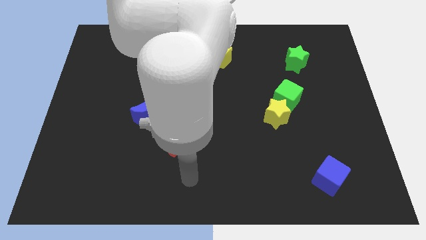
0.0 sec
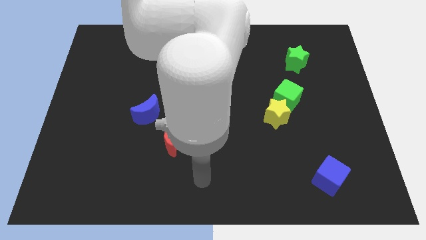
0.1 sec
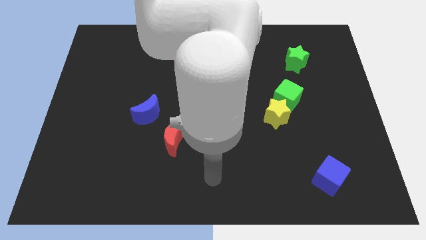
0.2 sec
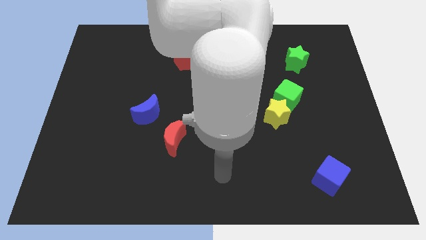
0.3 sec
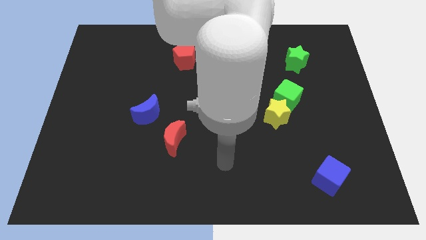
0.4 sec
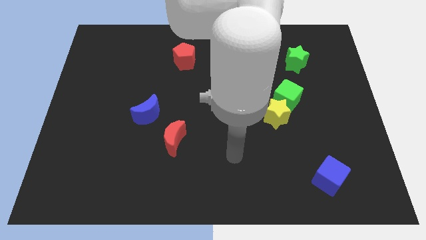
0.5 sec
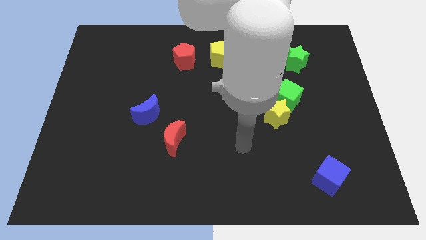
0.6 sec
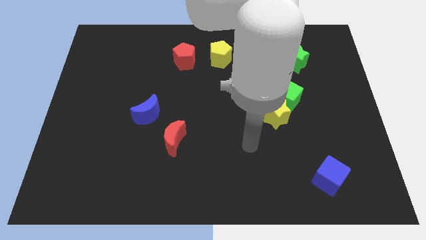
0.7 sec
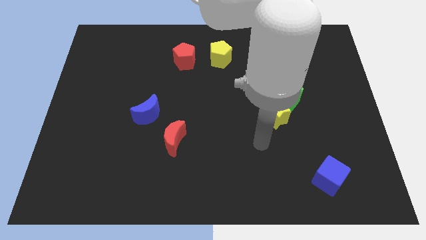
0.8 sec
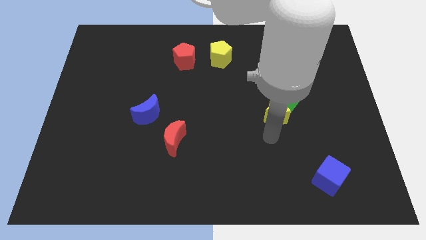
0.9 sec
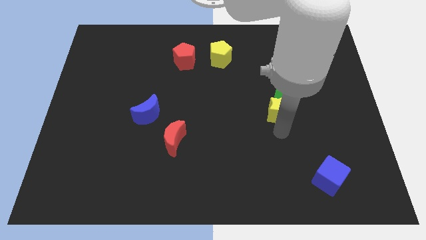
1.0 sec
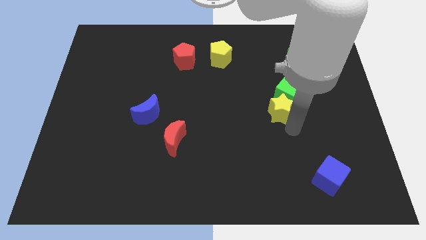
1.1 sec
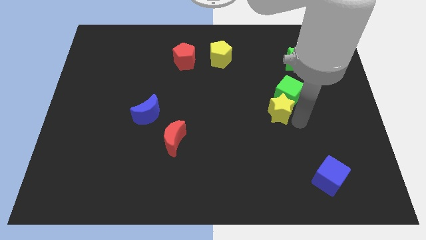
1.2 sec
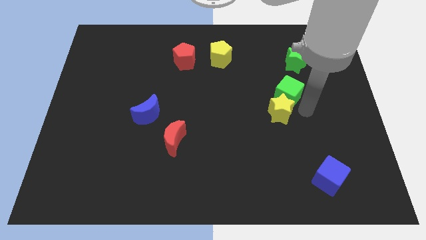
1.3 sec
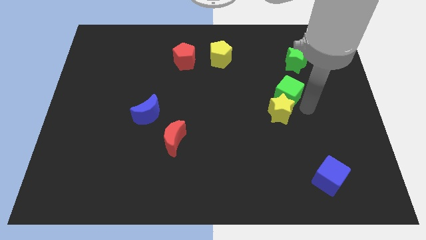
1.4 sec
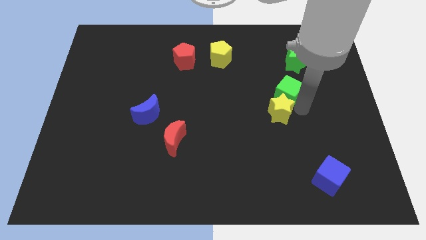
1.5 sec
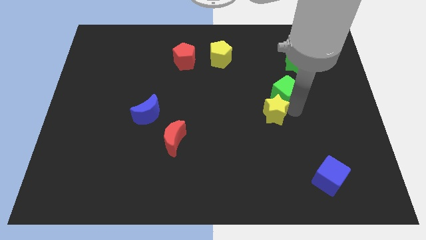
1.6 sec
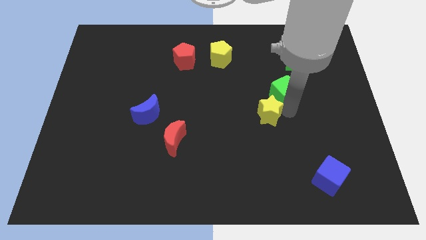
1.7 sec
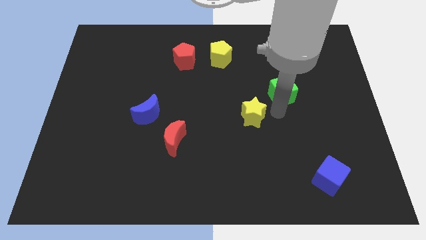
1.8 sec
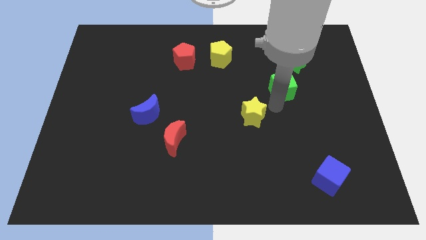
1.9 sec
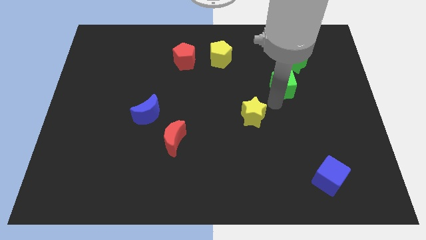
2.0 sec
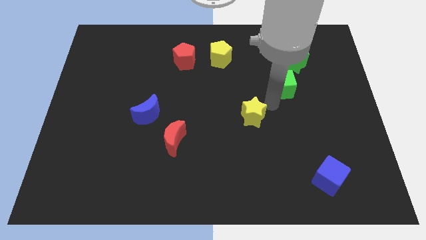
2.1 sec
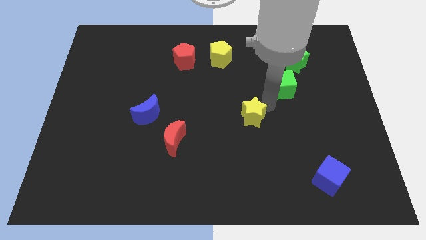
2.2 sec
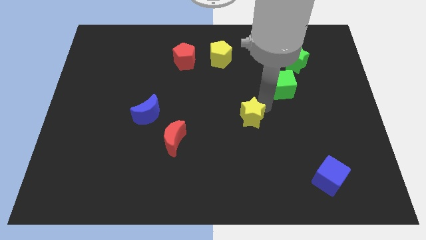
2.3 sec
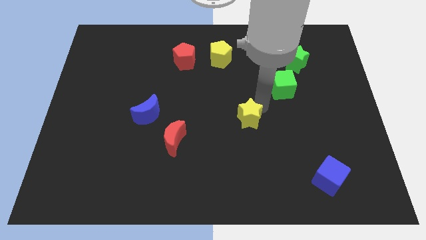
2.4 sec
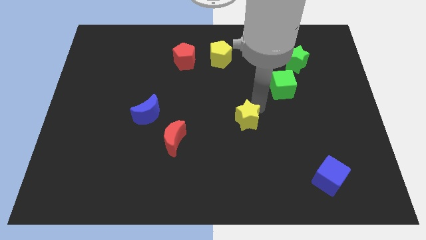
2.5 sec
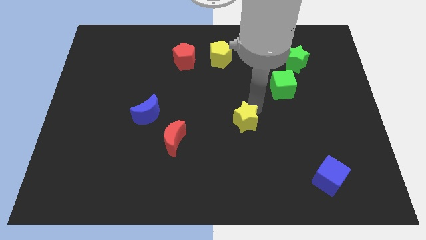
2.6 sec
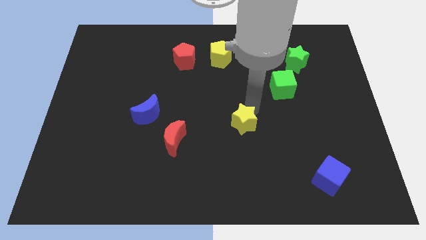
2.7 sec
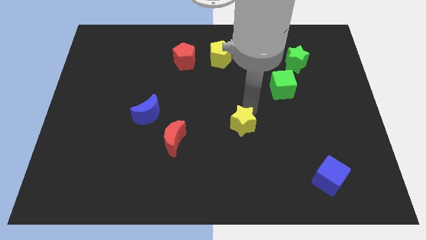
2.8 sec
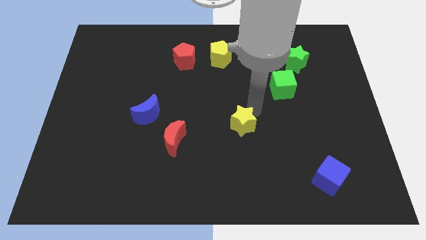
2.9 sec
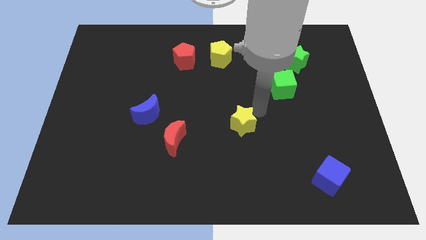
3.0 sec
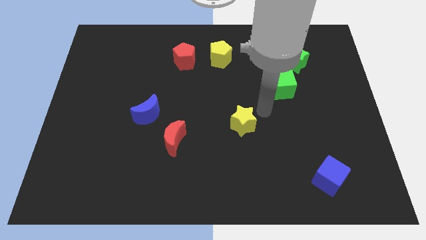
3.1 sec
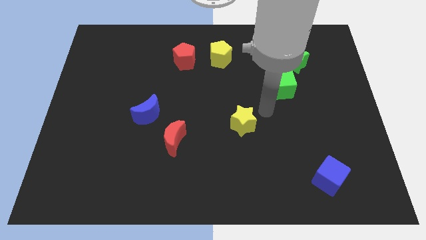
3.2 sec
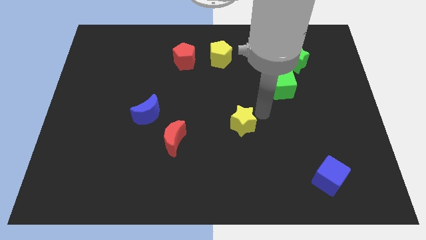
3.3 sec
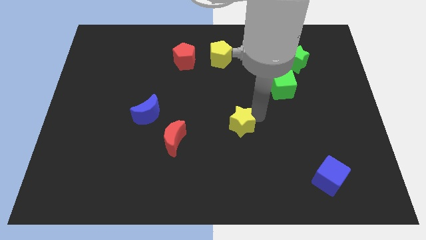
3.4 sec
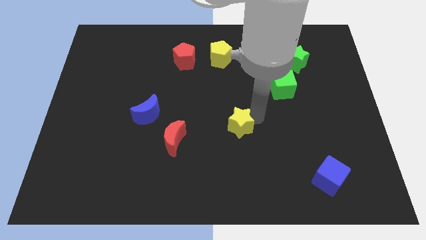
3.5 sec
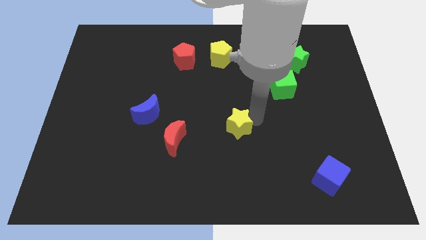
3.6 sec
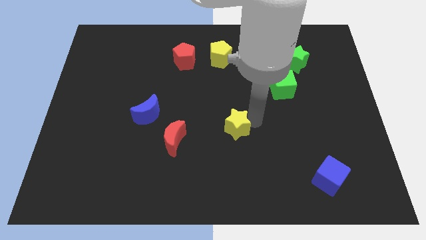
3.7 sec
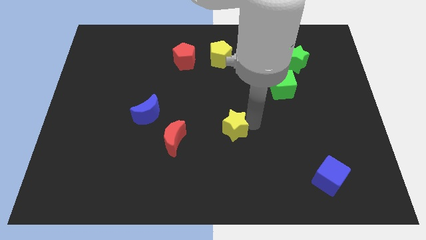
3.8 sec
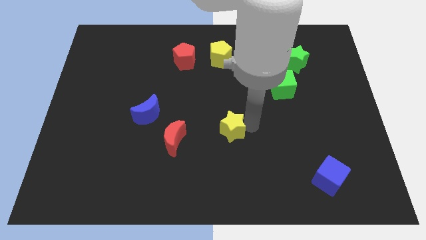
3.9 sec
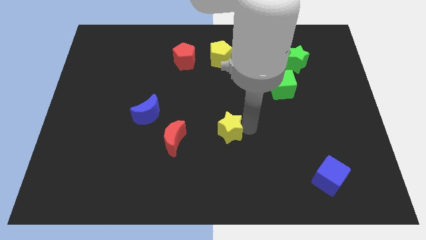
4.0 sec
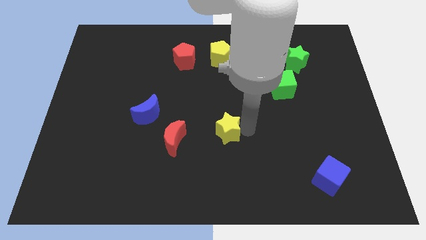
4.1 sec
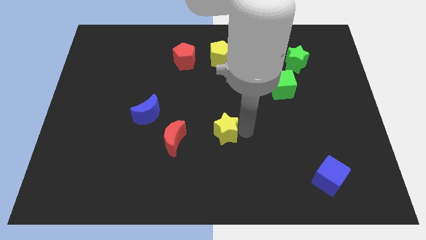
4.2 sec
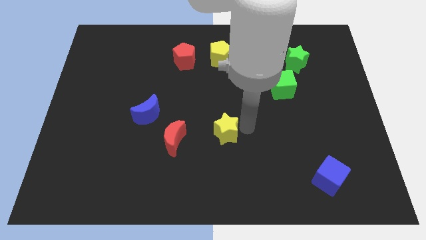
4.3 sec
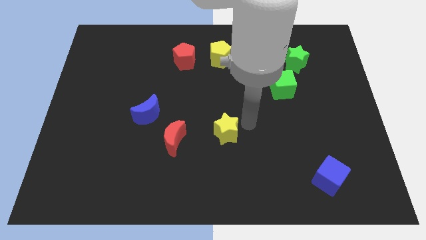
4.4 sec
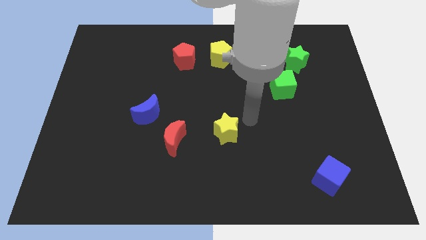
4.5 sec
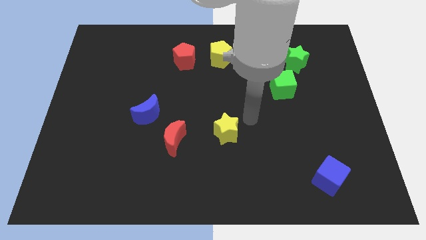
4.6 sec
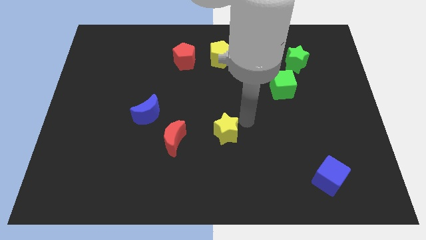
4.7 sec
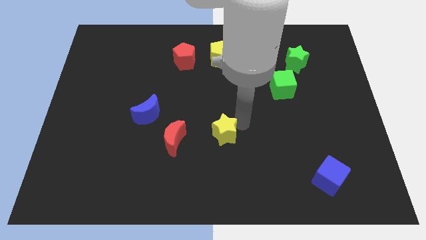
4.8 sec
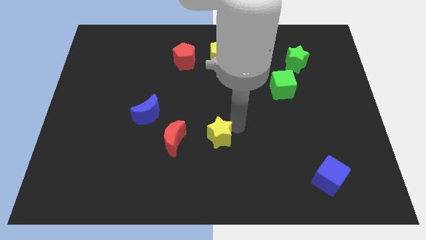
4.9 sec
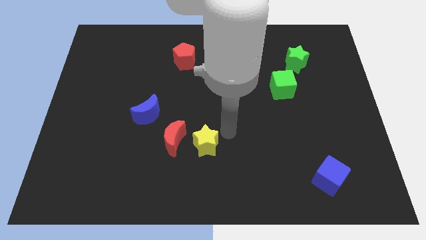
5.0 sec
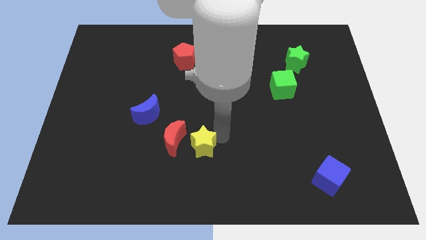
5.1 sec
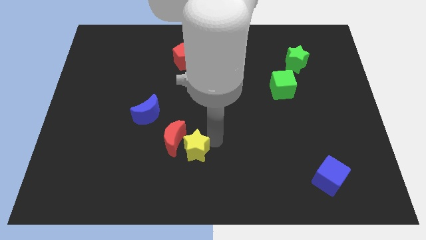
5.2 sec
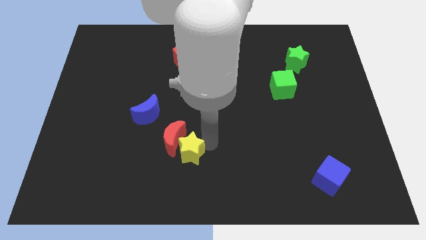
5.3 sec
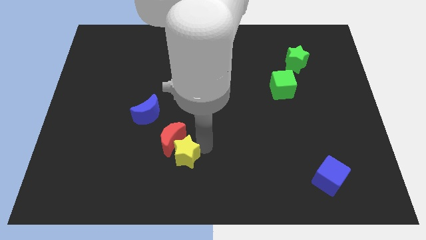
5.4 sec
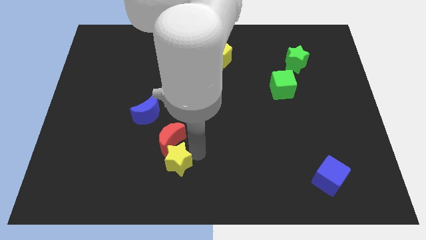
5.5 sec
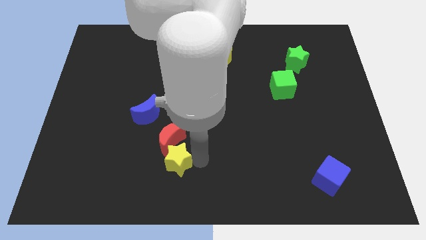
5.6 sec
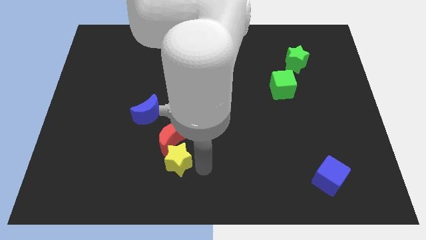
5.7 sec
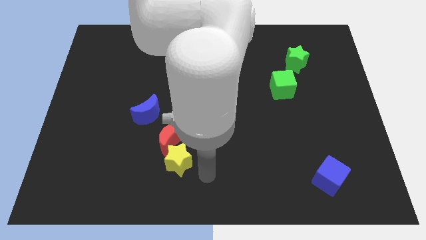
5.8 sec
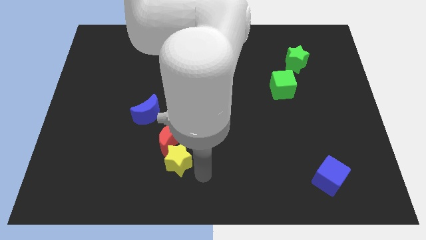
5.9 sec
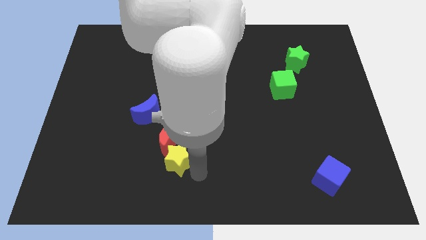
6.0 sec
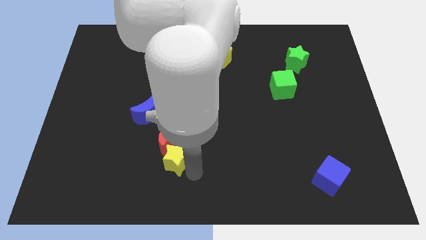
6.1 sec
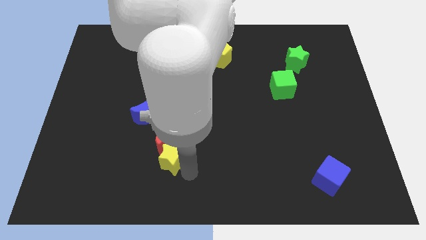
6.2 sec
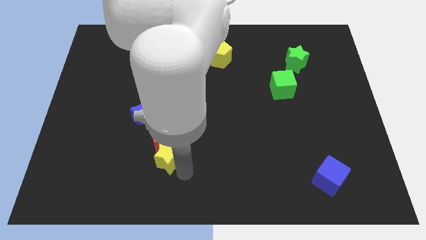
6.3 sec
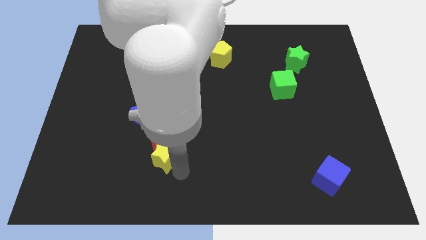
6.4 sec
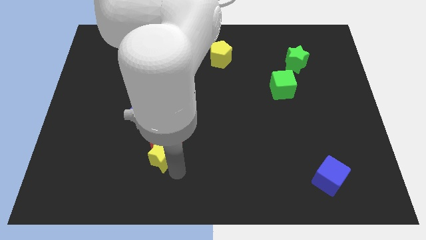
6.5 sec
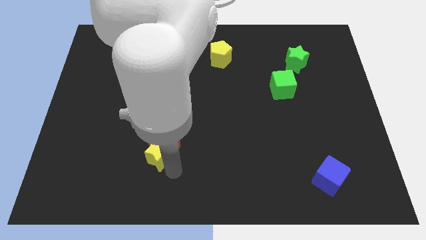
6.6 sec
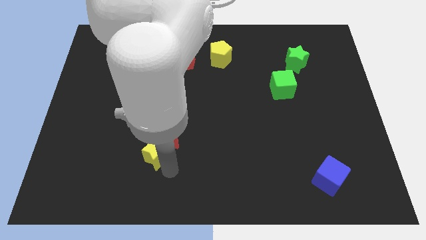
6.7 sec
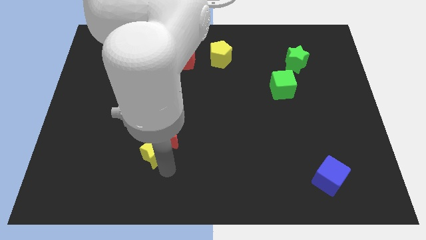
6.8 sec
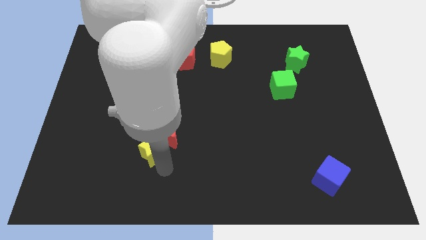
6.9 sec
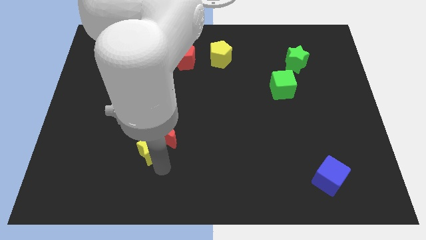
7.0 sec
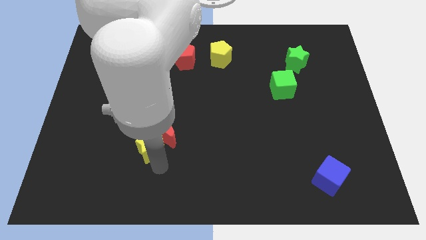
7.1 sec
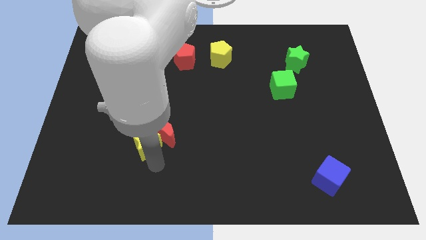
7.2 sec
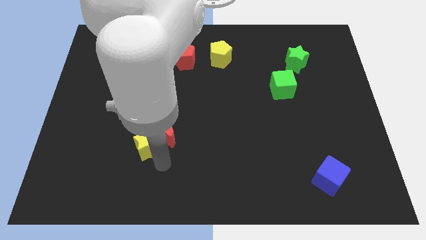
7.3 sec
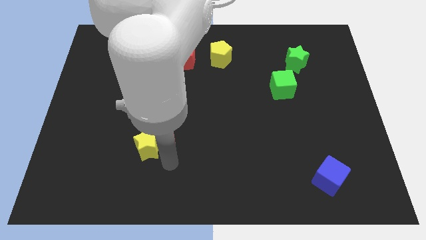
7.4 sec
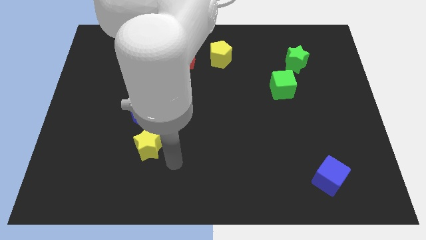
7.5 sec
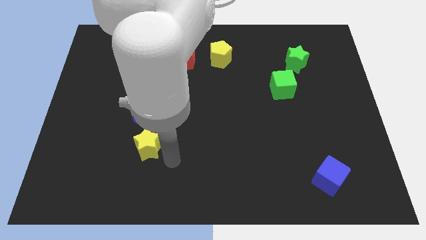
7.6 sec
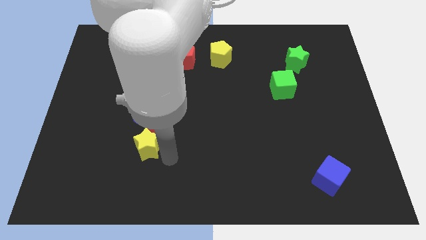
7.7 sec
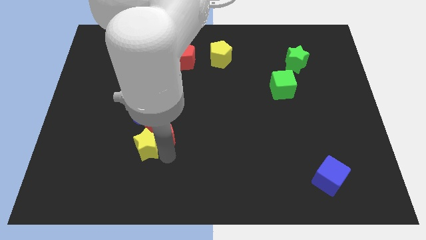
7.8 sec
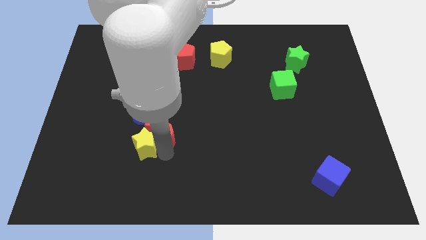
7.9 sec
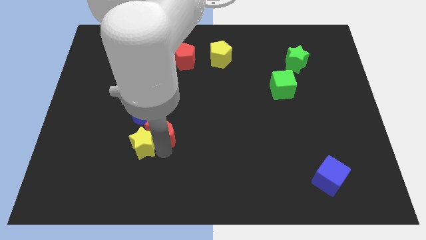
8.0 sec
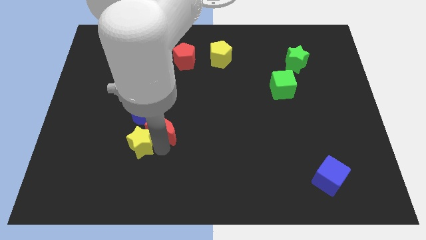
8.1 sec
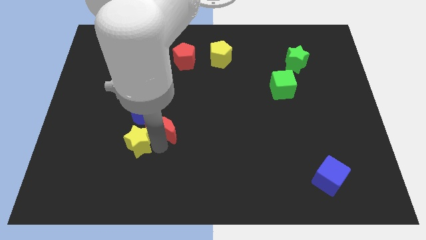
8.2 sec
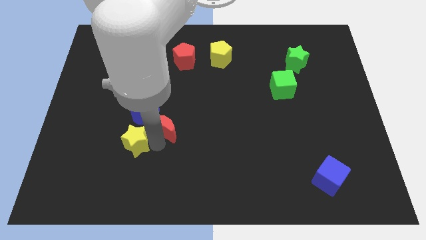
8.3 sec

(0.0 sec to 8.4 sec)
slide the yellow star diagonally down and to the left of the blue moon
